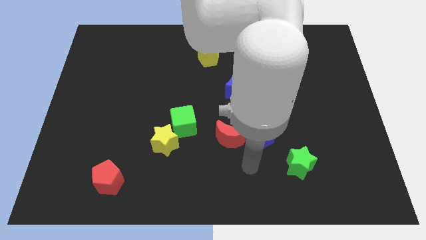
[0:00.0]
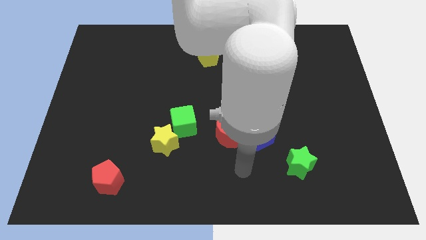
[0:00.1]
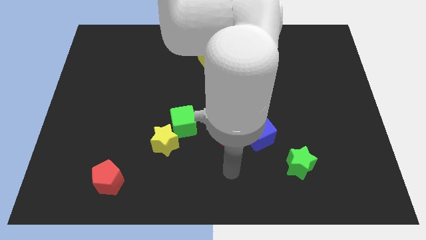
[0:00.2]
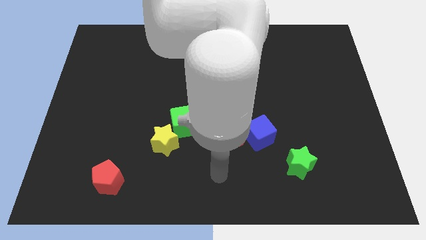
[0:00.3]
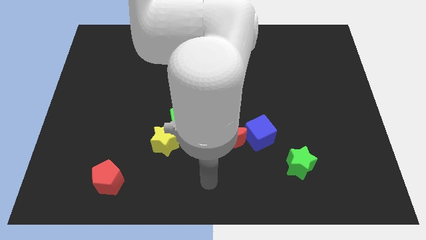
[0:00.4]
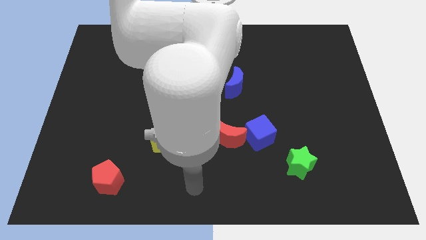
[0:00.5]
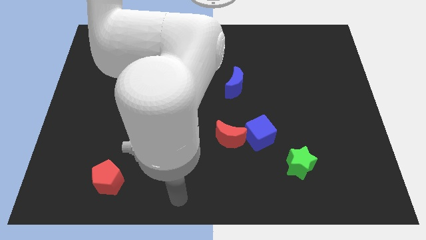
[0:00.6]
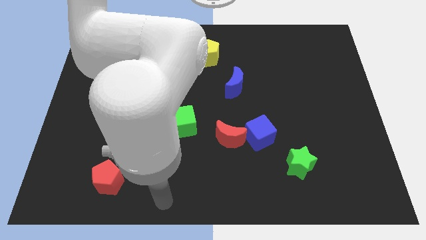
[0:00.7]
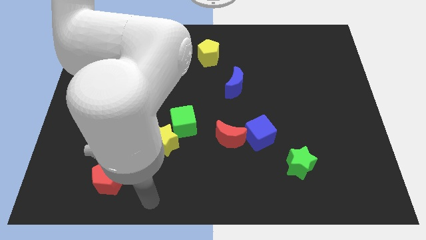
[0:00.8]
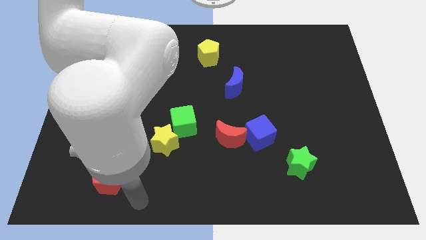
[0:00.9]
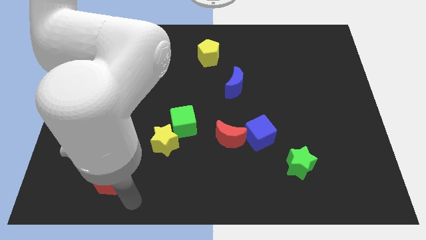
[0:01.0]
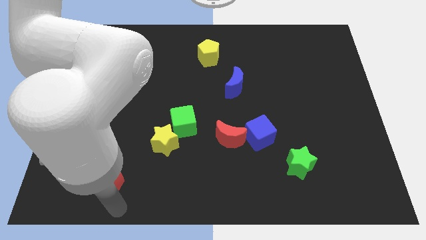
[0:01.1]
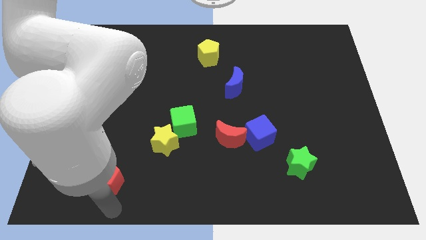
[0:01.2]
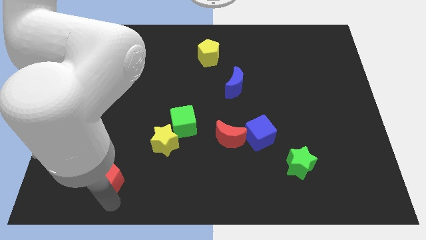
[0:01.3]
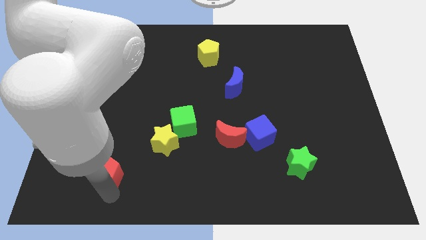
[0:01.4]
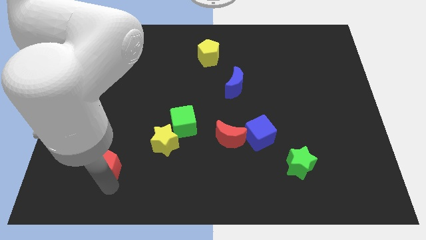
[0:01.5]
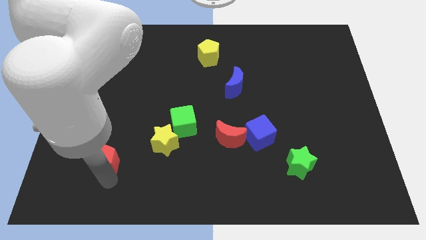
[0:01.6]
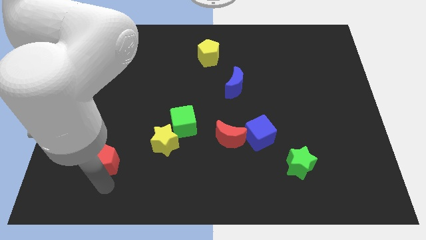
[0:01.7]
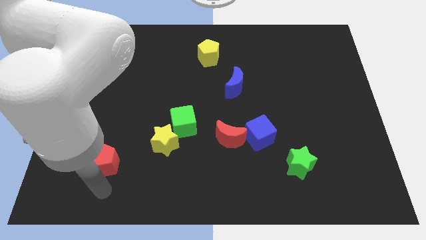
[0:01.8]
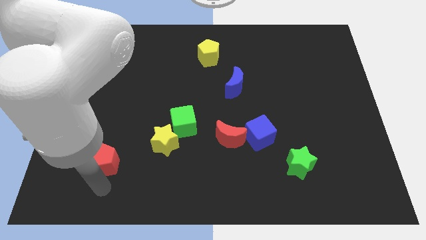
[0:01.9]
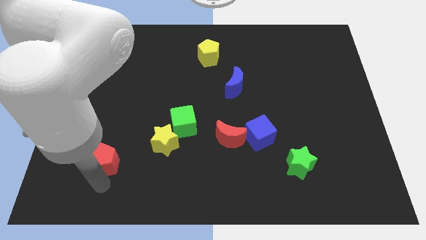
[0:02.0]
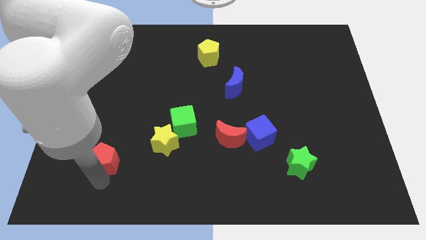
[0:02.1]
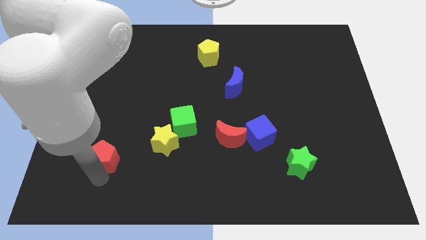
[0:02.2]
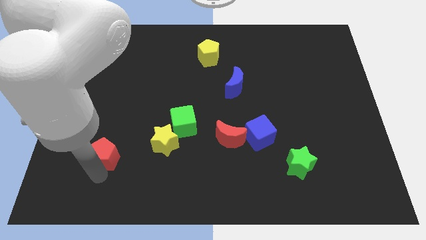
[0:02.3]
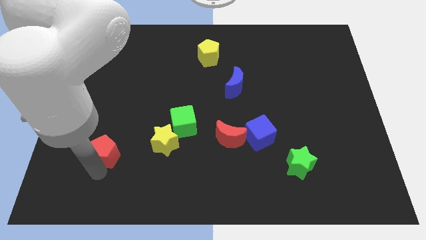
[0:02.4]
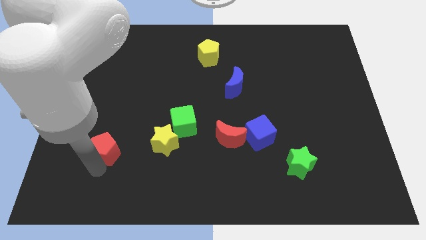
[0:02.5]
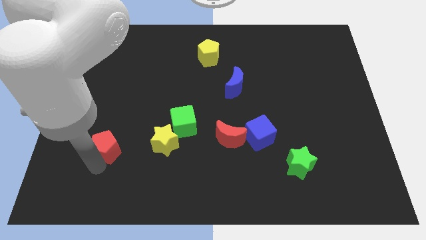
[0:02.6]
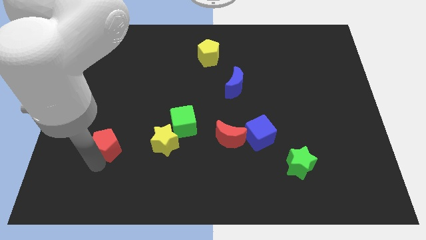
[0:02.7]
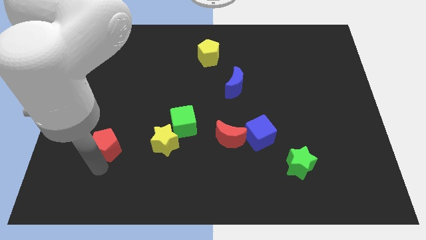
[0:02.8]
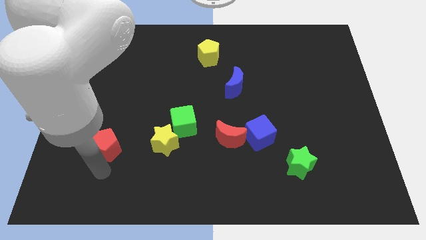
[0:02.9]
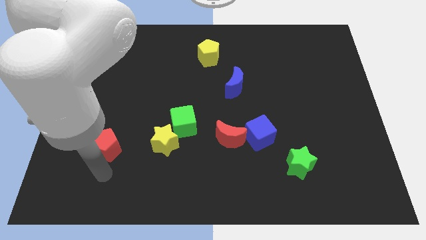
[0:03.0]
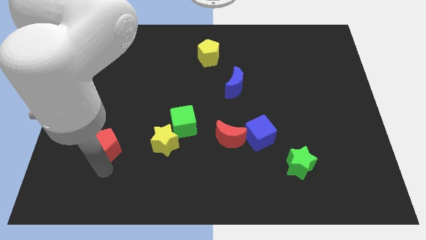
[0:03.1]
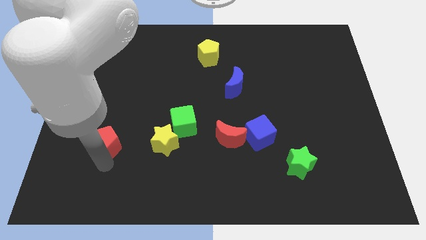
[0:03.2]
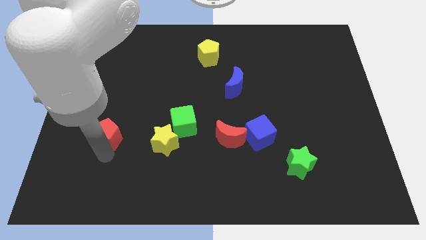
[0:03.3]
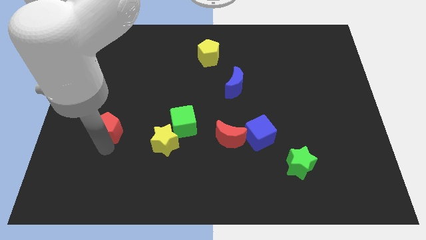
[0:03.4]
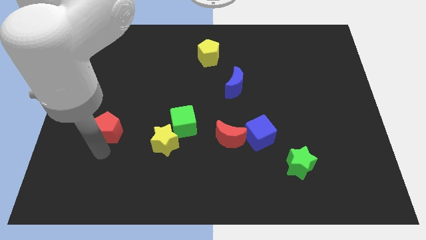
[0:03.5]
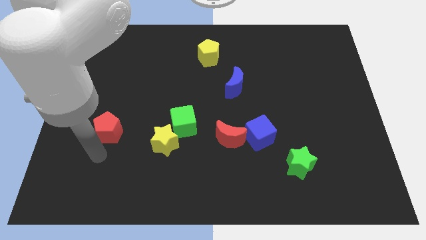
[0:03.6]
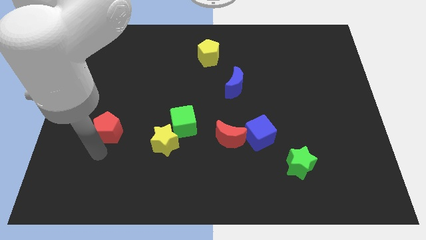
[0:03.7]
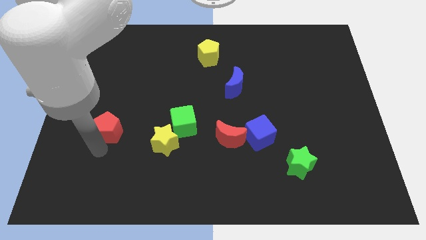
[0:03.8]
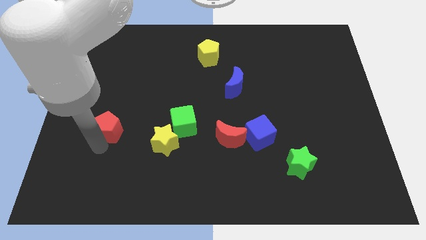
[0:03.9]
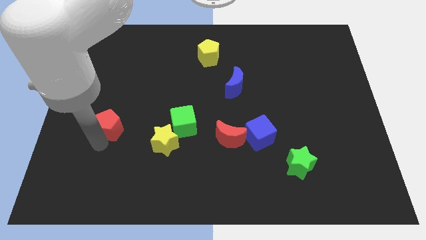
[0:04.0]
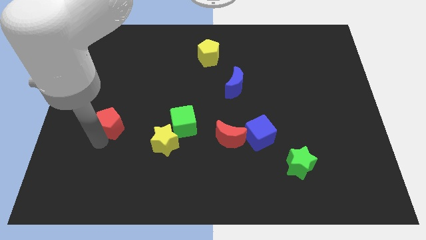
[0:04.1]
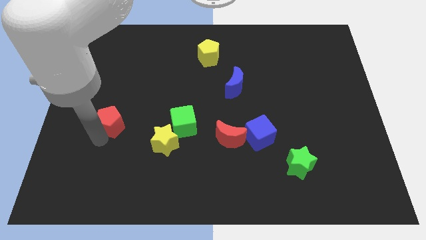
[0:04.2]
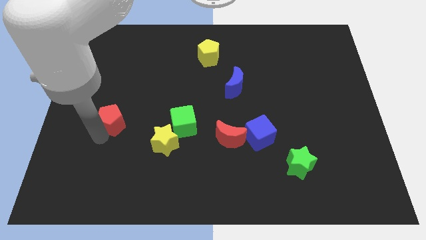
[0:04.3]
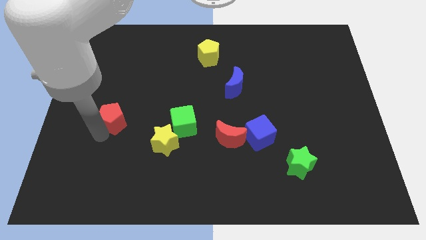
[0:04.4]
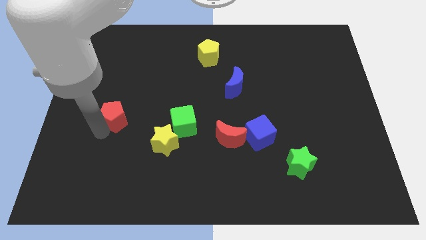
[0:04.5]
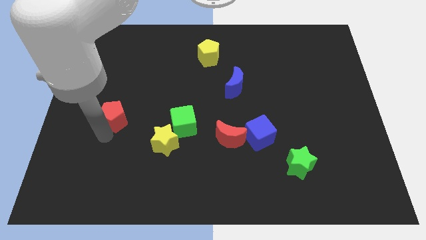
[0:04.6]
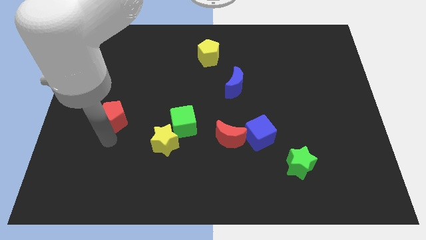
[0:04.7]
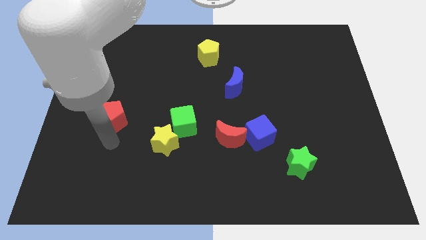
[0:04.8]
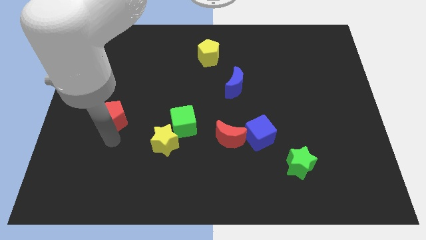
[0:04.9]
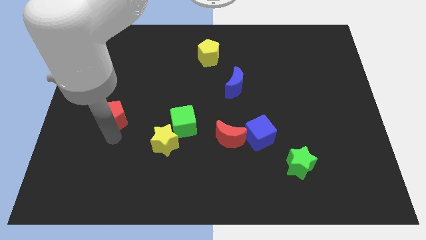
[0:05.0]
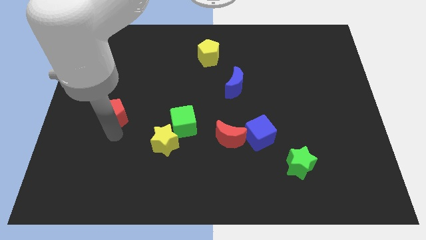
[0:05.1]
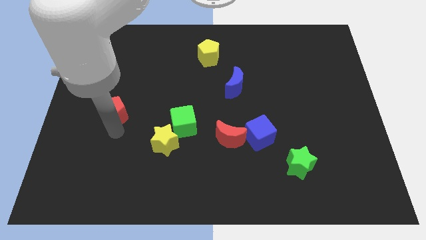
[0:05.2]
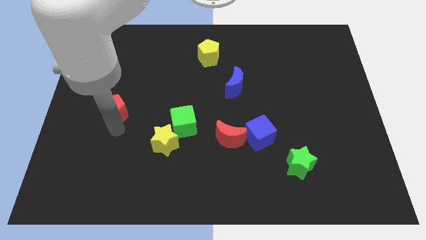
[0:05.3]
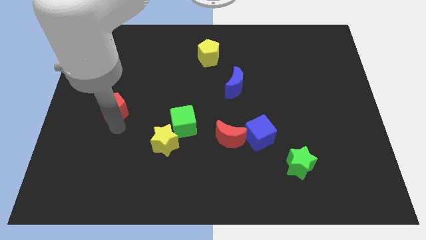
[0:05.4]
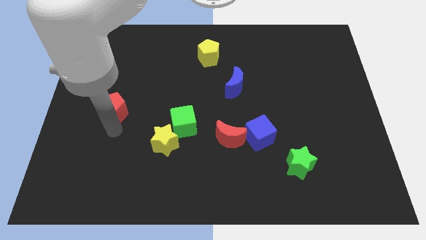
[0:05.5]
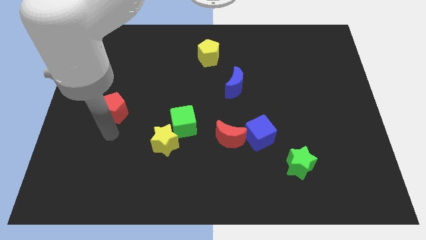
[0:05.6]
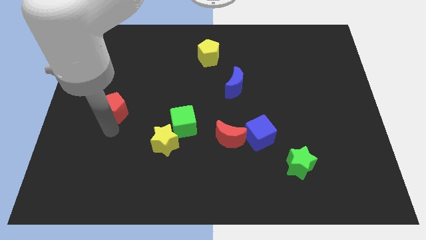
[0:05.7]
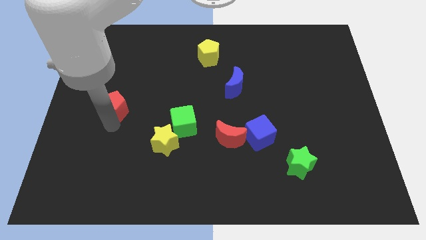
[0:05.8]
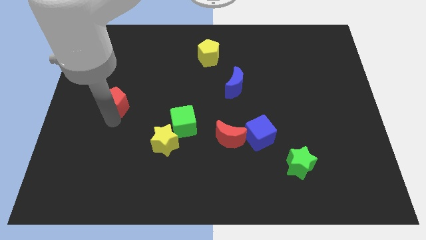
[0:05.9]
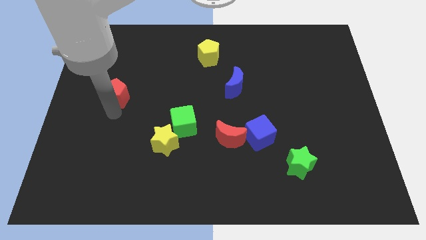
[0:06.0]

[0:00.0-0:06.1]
slide the red pentagon upwards

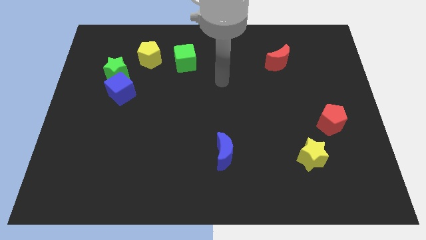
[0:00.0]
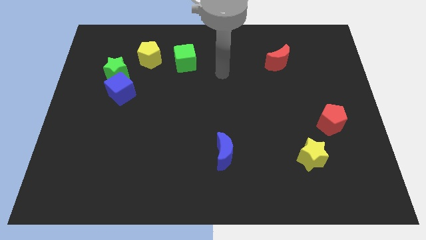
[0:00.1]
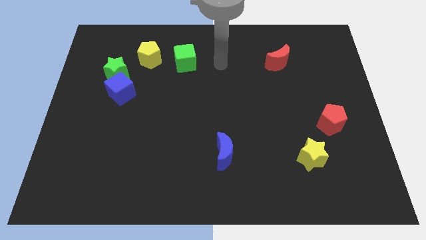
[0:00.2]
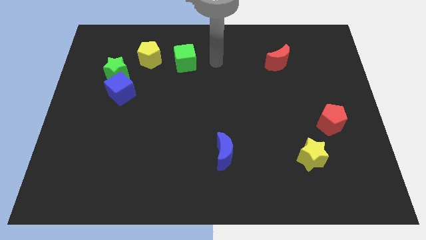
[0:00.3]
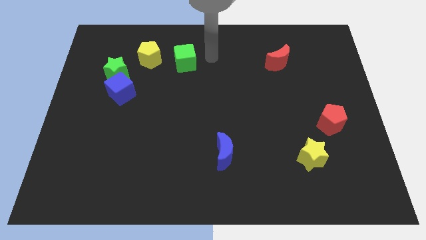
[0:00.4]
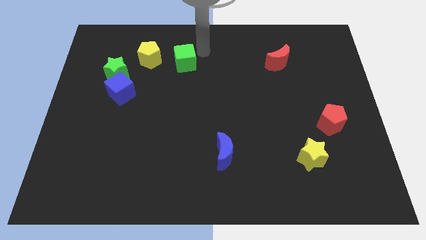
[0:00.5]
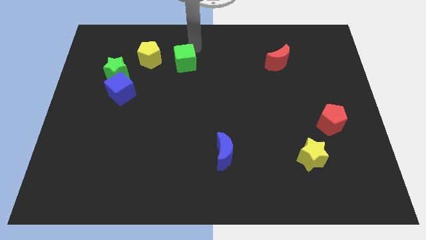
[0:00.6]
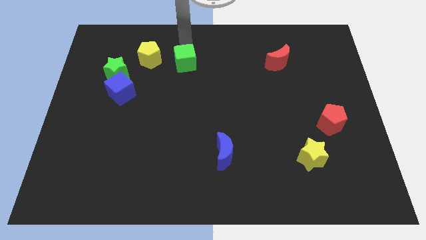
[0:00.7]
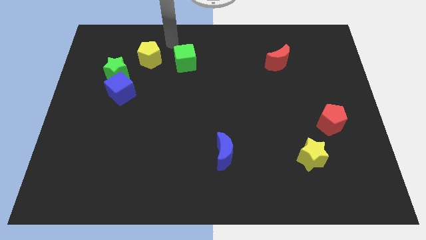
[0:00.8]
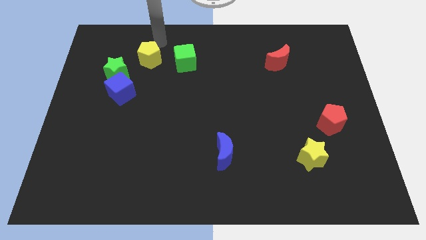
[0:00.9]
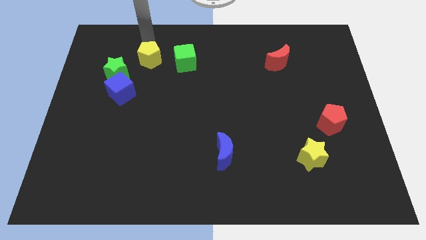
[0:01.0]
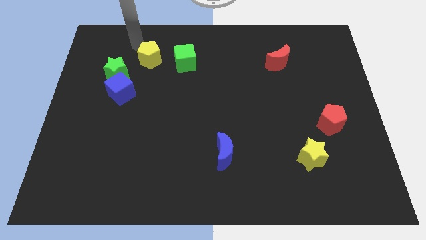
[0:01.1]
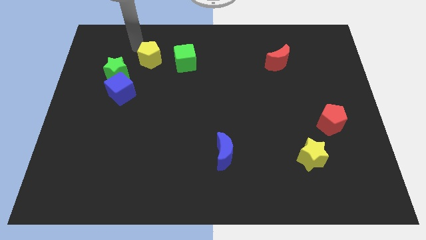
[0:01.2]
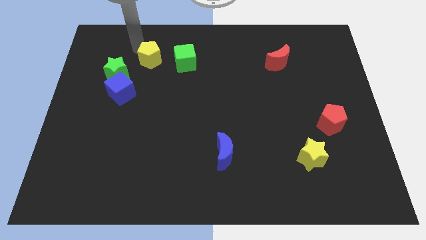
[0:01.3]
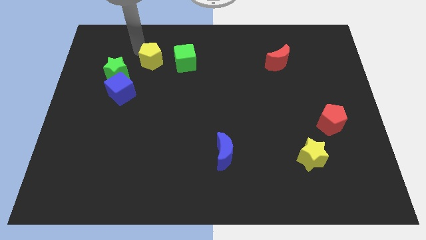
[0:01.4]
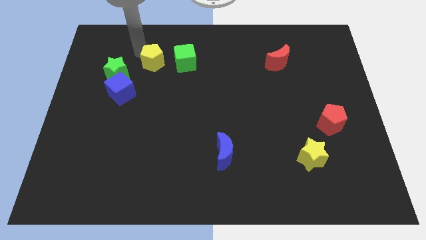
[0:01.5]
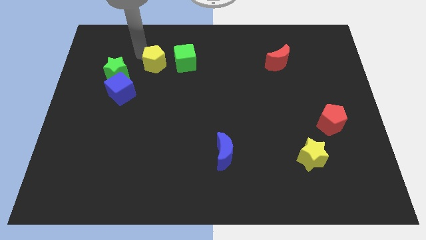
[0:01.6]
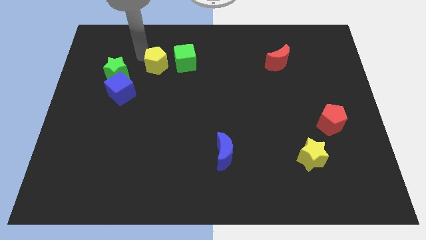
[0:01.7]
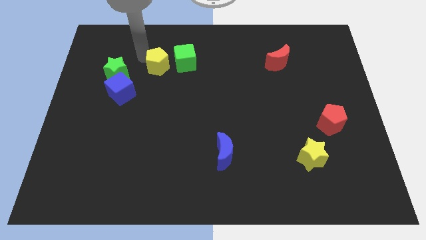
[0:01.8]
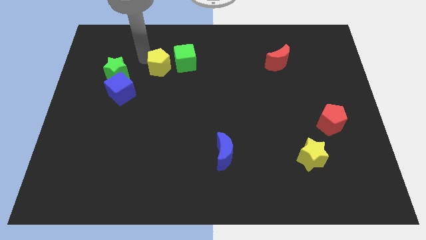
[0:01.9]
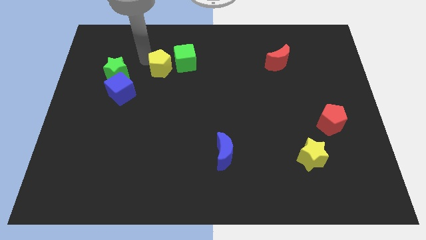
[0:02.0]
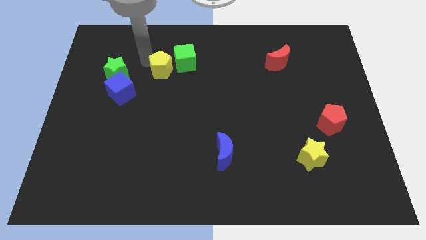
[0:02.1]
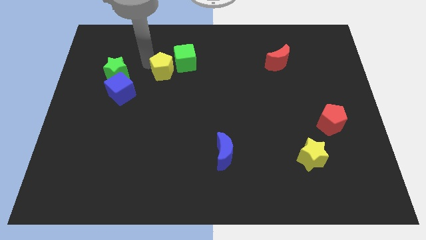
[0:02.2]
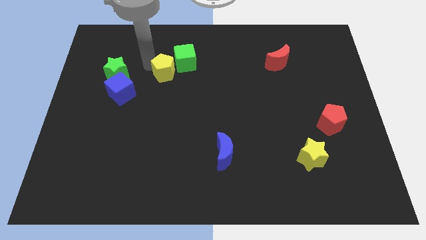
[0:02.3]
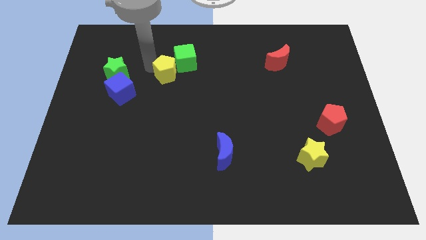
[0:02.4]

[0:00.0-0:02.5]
move the yellow pentagon a little diagonally downwards and to the right
